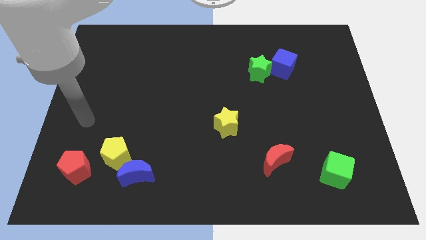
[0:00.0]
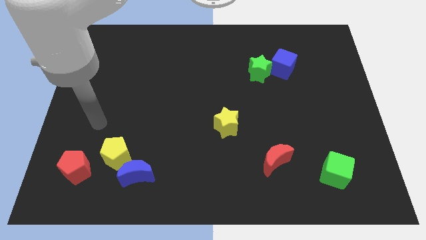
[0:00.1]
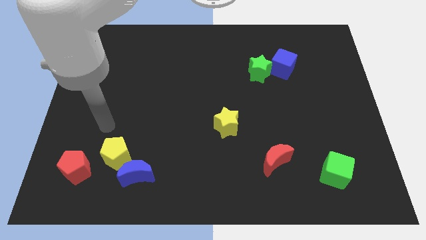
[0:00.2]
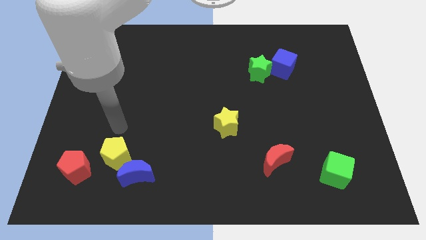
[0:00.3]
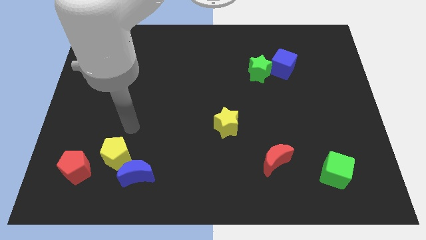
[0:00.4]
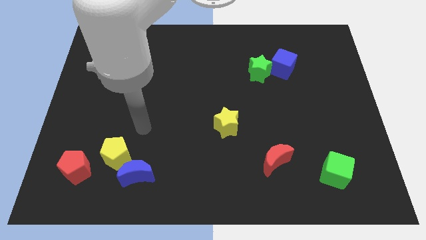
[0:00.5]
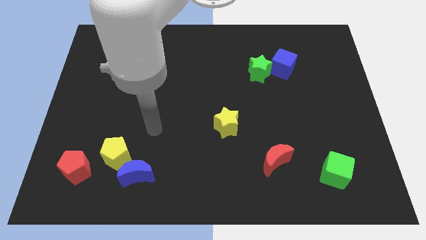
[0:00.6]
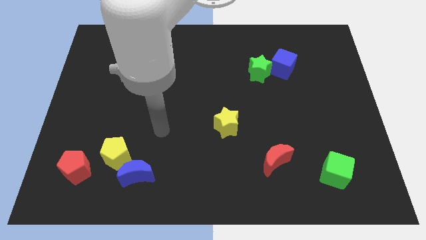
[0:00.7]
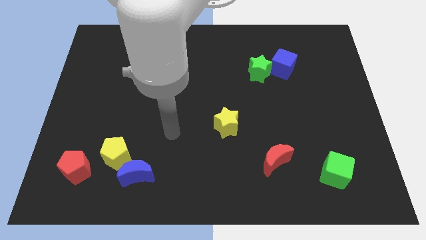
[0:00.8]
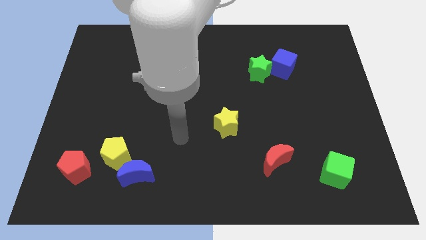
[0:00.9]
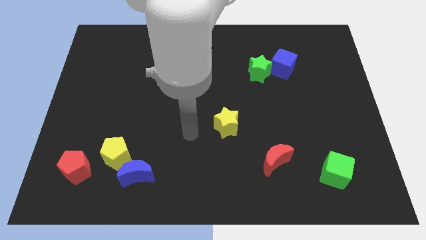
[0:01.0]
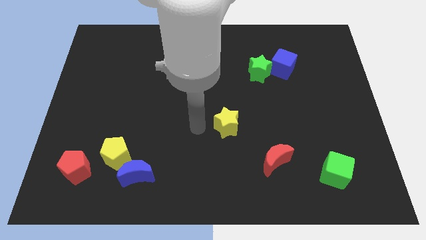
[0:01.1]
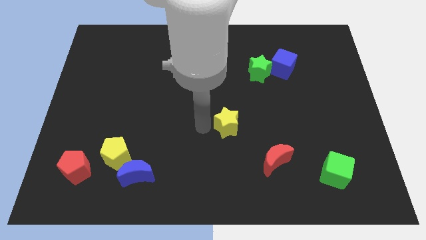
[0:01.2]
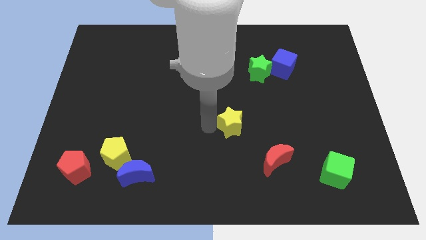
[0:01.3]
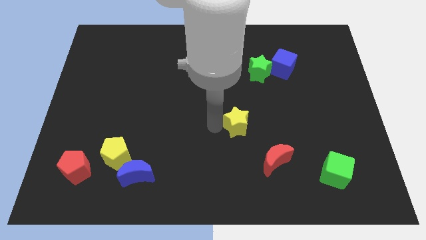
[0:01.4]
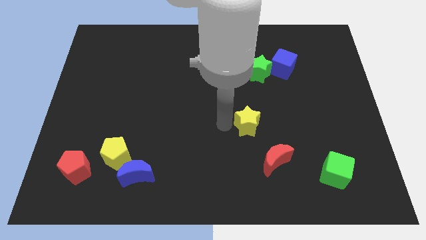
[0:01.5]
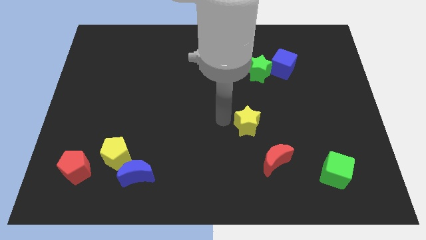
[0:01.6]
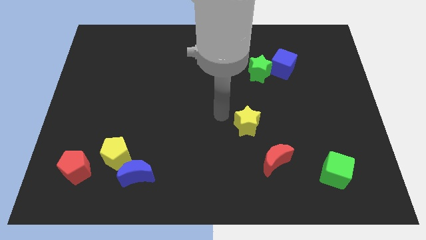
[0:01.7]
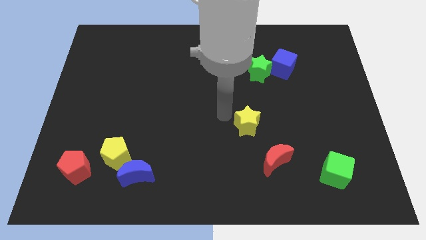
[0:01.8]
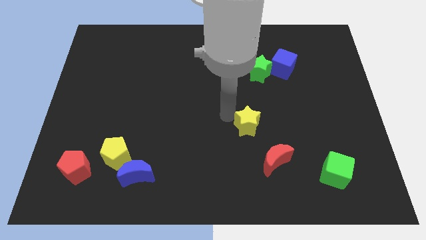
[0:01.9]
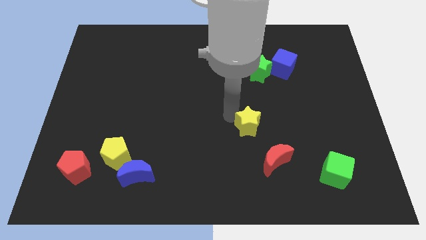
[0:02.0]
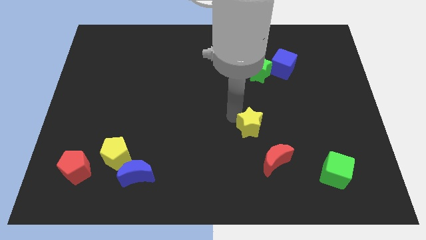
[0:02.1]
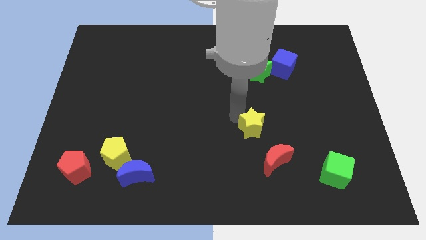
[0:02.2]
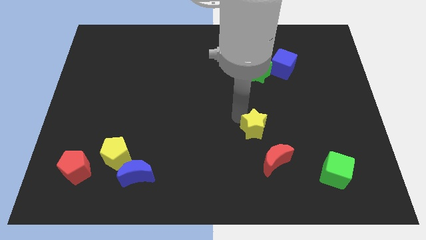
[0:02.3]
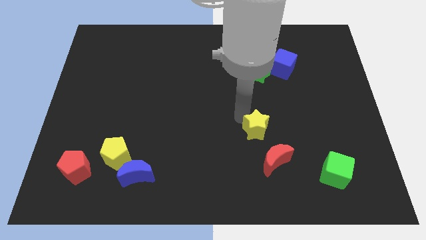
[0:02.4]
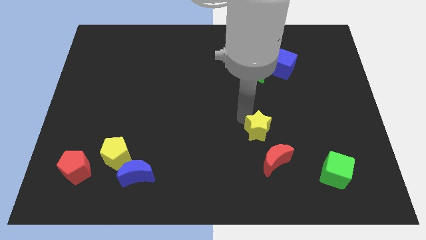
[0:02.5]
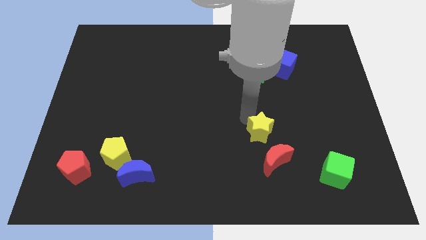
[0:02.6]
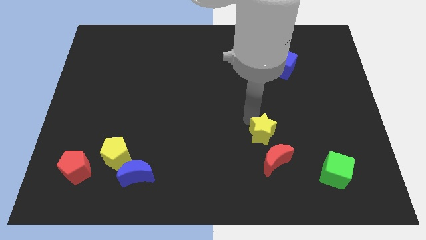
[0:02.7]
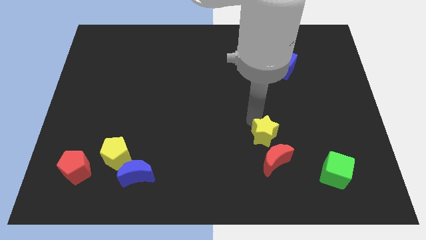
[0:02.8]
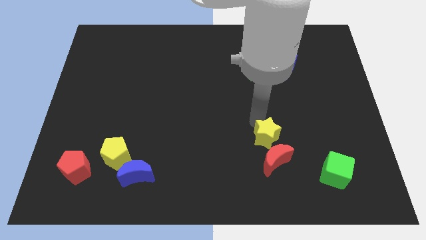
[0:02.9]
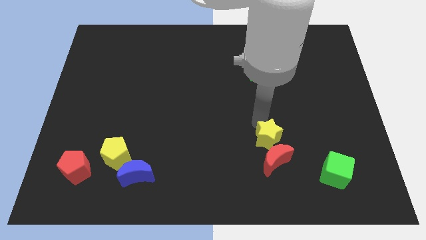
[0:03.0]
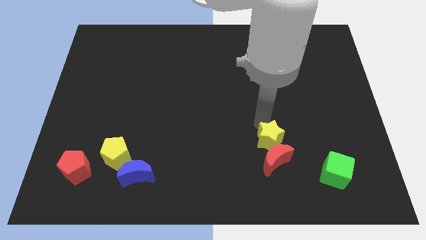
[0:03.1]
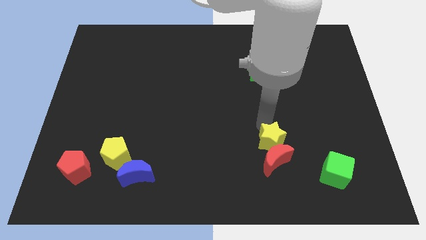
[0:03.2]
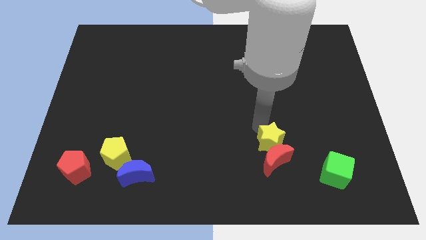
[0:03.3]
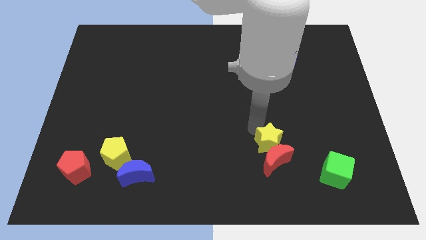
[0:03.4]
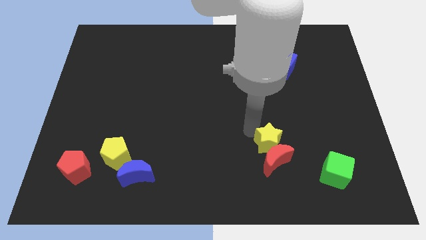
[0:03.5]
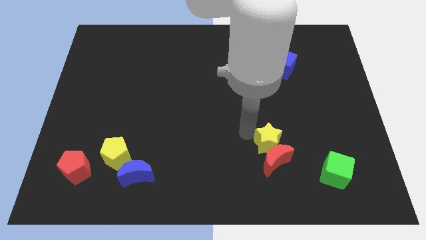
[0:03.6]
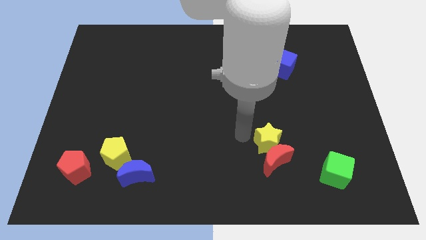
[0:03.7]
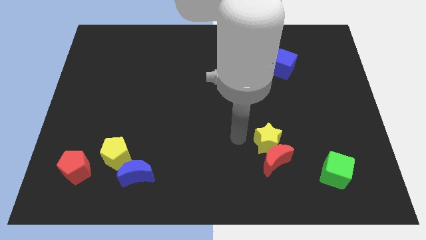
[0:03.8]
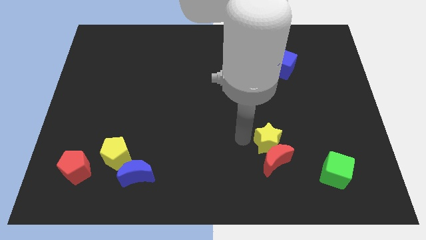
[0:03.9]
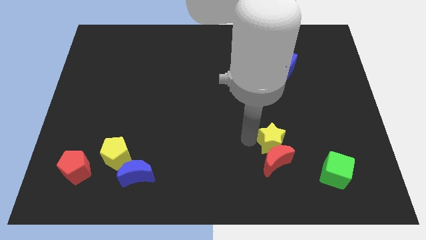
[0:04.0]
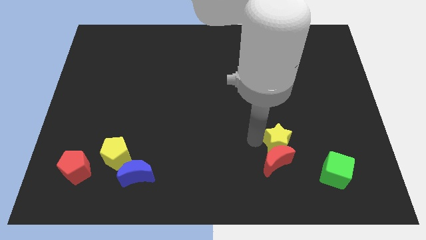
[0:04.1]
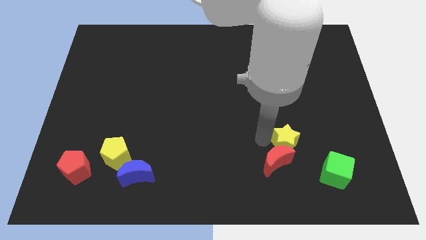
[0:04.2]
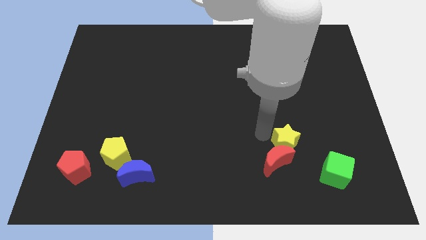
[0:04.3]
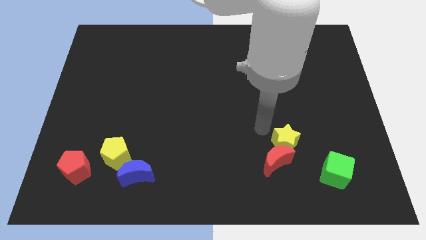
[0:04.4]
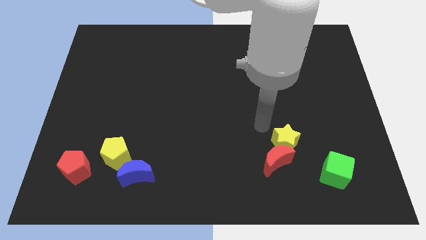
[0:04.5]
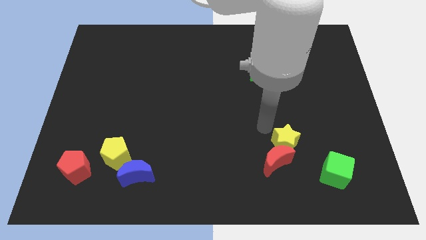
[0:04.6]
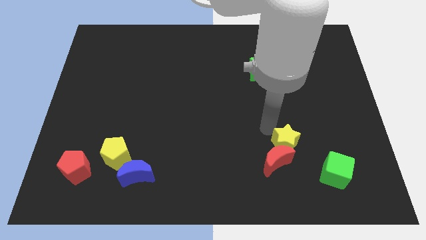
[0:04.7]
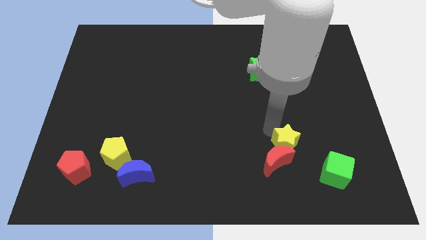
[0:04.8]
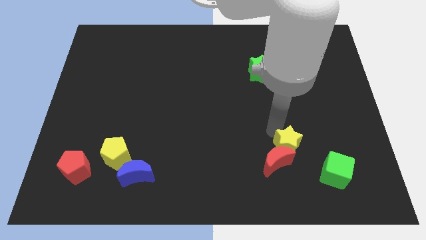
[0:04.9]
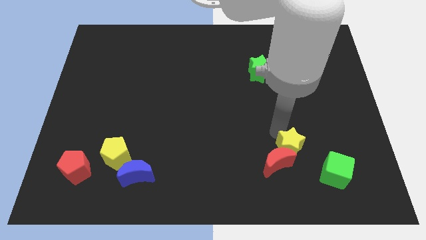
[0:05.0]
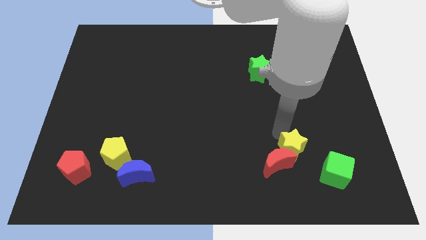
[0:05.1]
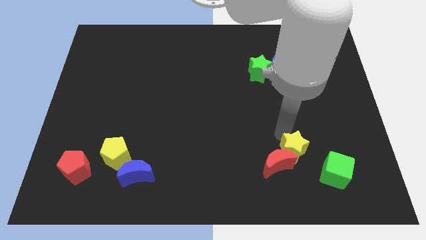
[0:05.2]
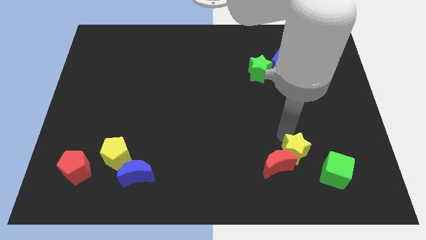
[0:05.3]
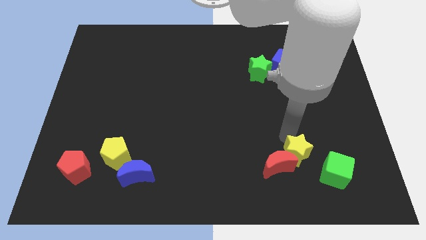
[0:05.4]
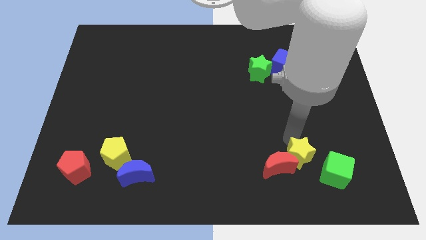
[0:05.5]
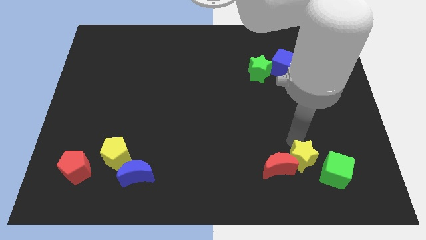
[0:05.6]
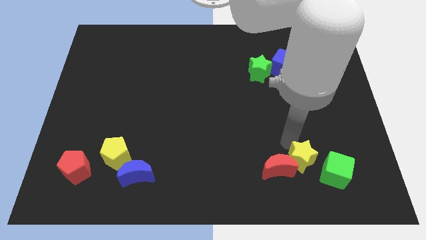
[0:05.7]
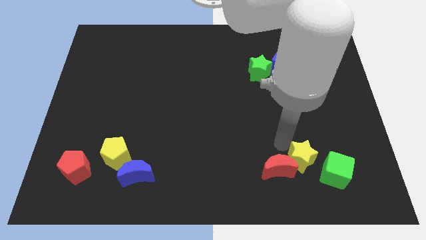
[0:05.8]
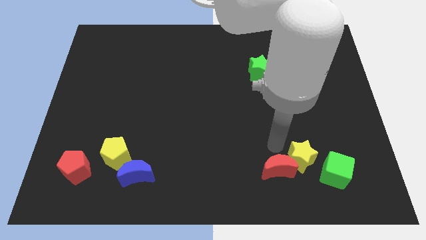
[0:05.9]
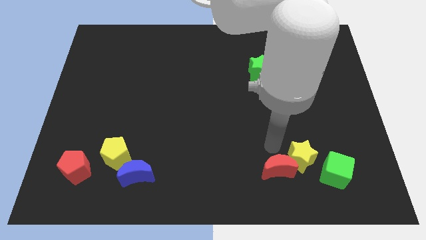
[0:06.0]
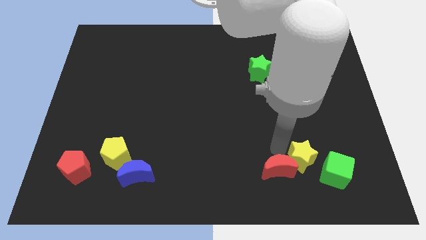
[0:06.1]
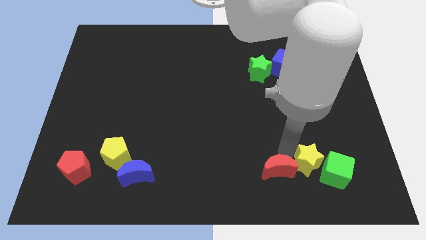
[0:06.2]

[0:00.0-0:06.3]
push the yellow star next to the green cube

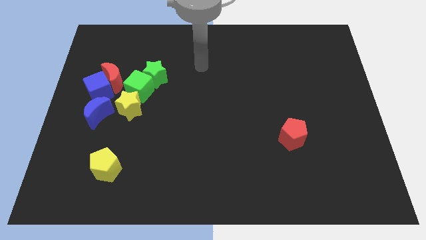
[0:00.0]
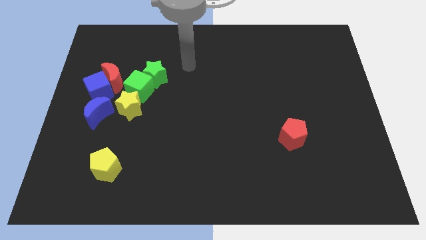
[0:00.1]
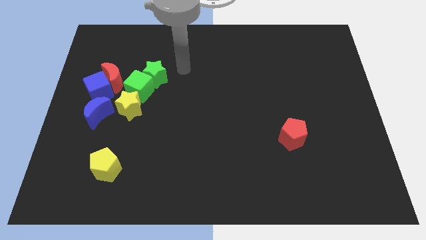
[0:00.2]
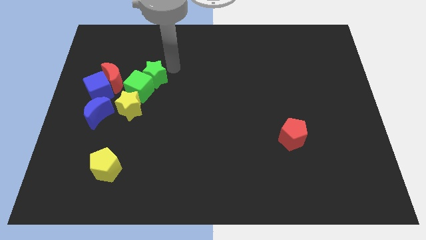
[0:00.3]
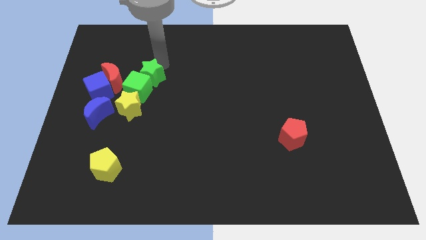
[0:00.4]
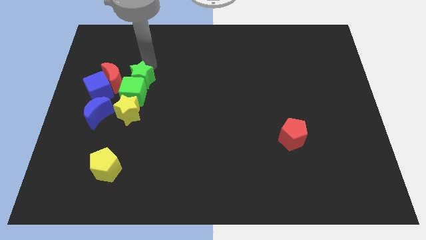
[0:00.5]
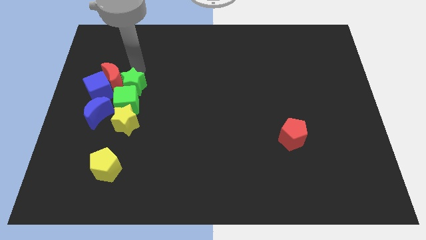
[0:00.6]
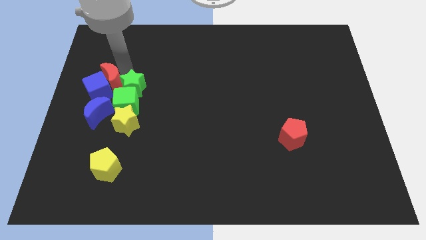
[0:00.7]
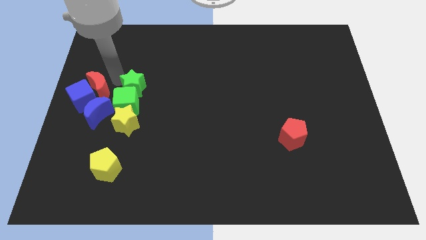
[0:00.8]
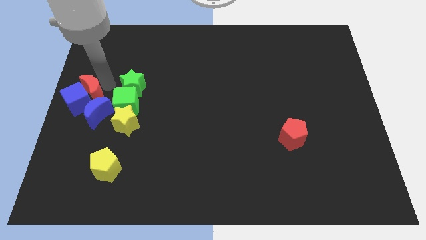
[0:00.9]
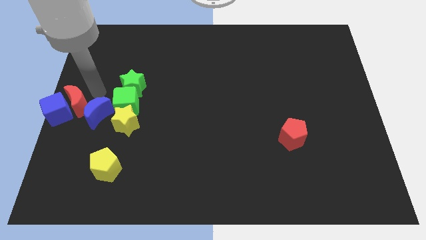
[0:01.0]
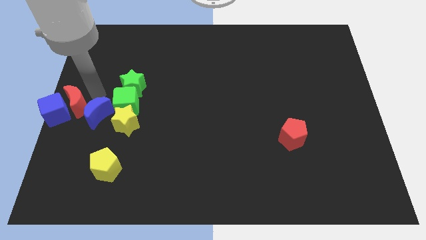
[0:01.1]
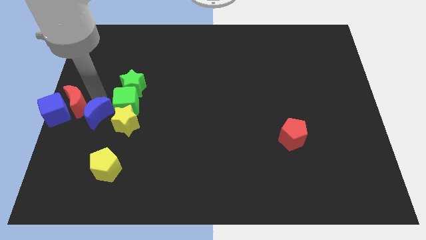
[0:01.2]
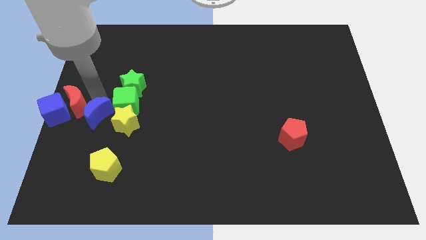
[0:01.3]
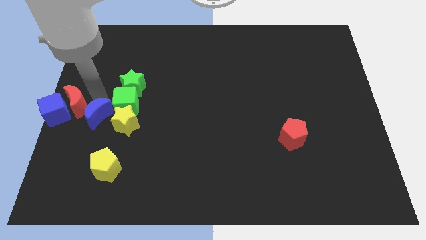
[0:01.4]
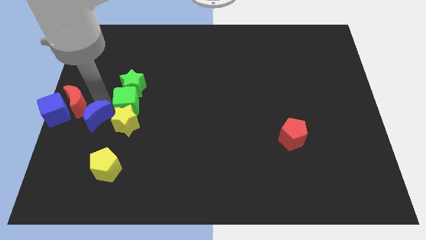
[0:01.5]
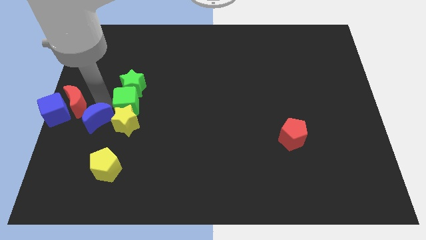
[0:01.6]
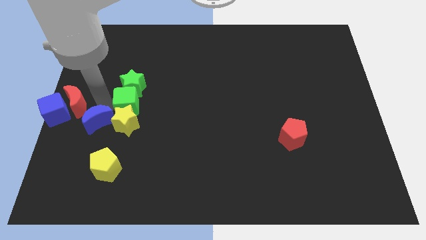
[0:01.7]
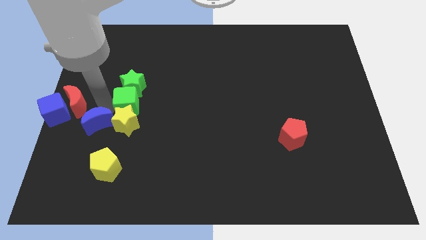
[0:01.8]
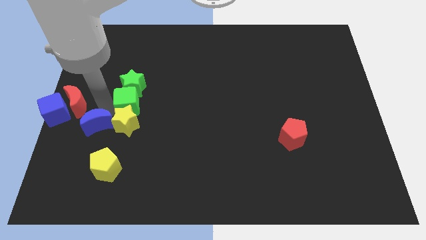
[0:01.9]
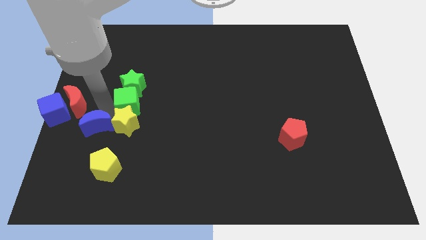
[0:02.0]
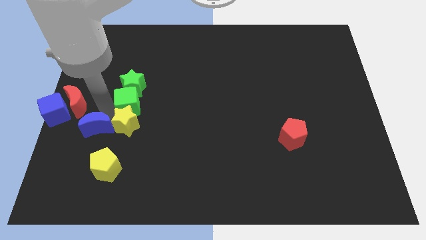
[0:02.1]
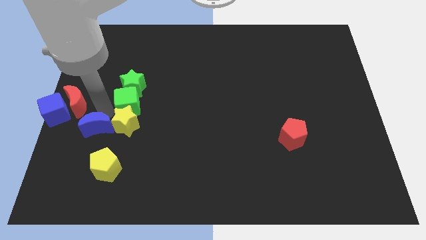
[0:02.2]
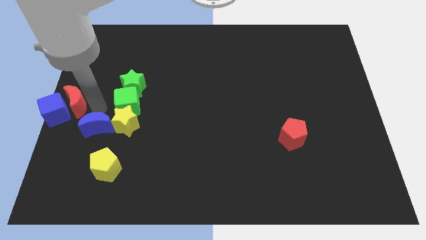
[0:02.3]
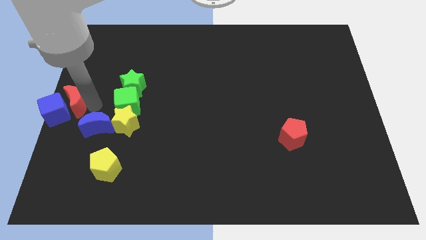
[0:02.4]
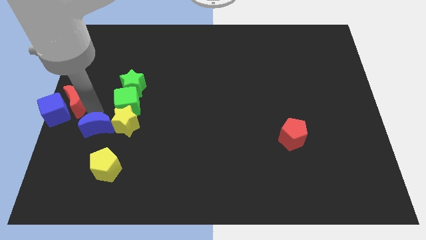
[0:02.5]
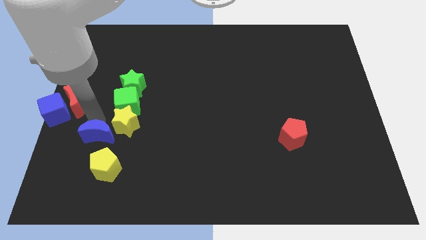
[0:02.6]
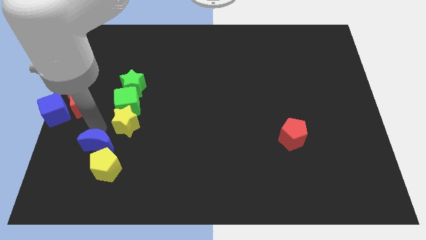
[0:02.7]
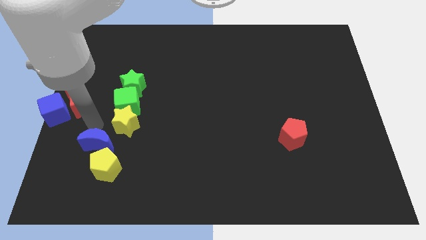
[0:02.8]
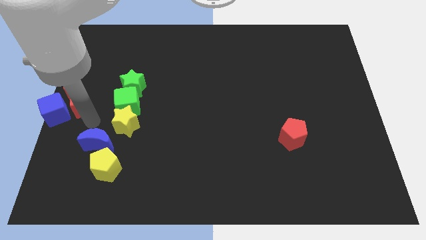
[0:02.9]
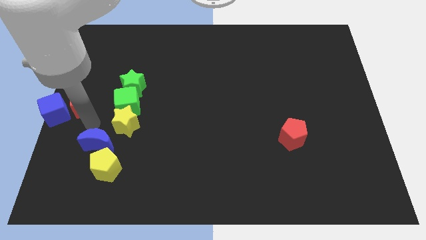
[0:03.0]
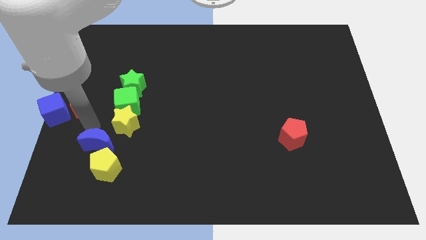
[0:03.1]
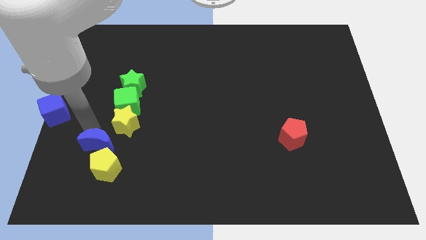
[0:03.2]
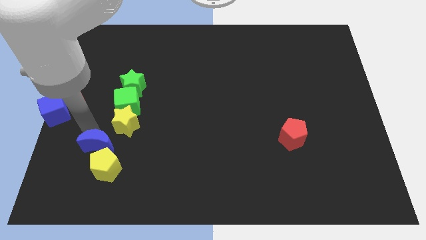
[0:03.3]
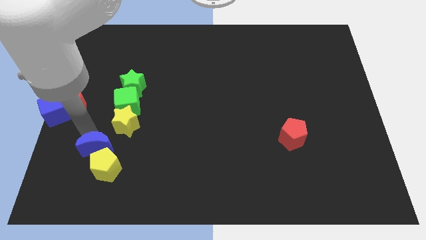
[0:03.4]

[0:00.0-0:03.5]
slide the blue moon close to the yellow pentagon
